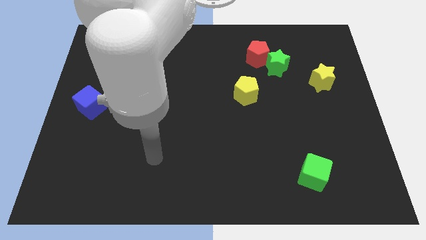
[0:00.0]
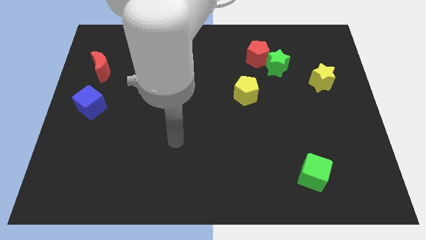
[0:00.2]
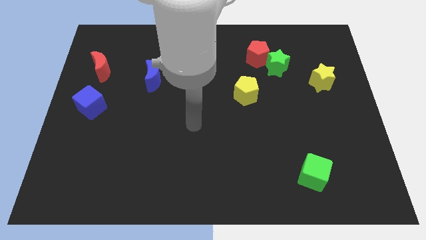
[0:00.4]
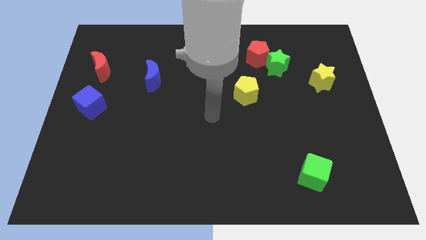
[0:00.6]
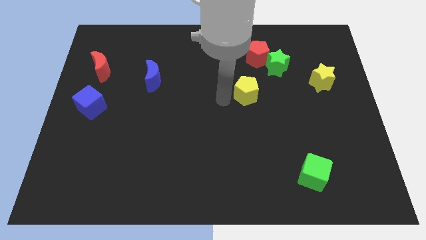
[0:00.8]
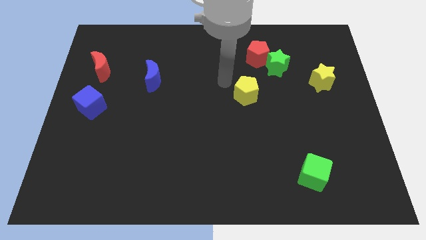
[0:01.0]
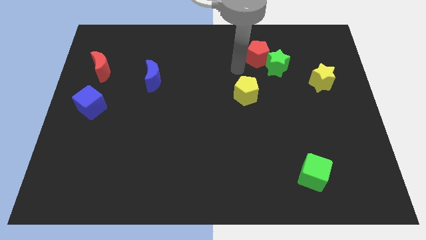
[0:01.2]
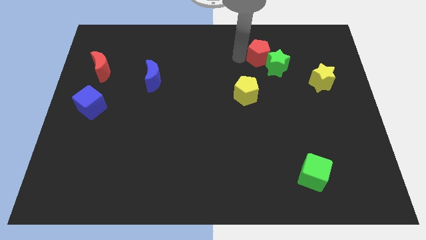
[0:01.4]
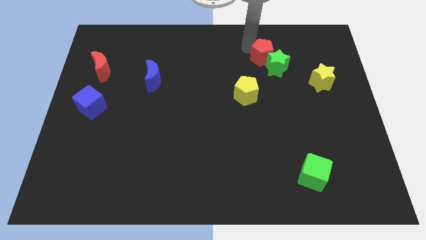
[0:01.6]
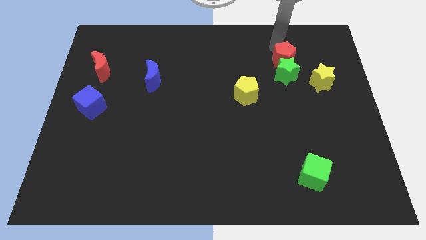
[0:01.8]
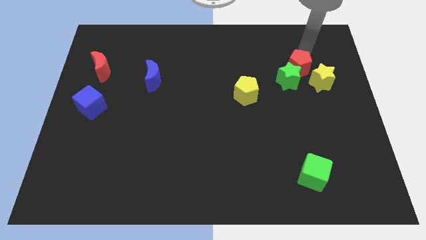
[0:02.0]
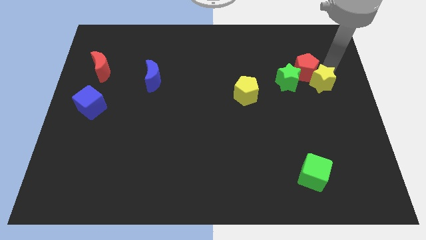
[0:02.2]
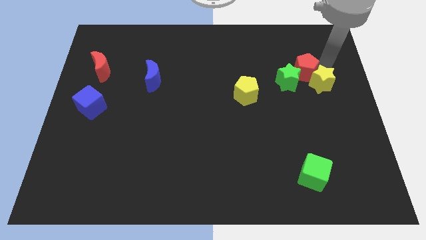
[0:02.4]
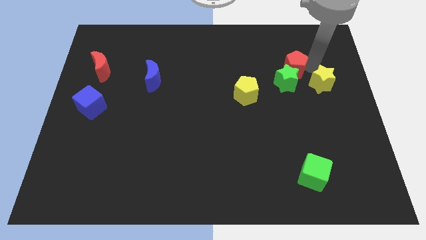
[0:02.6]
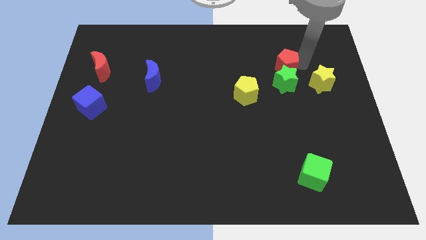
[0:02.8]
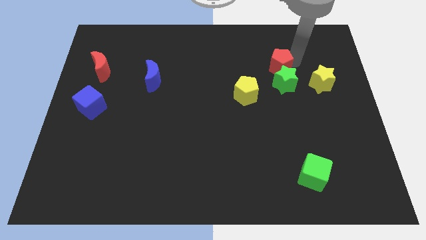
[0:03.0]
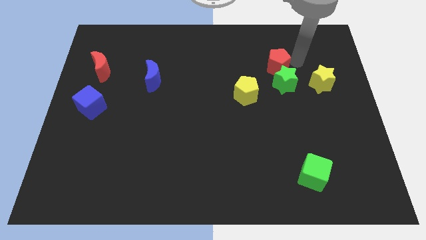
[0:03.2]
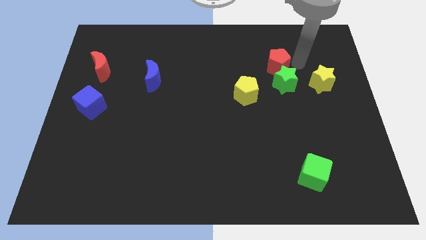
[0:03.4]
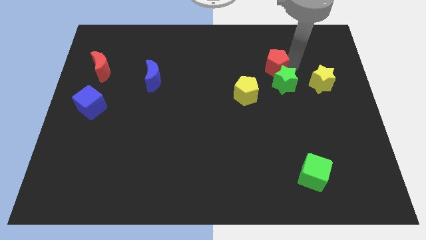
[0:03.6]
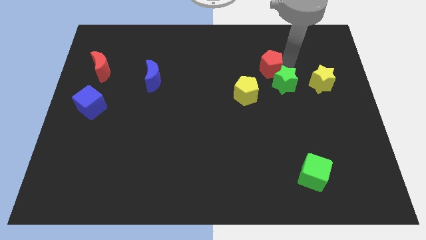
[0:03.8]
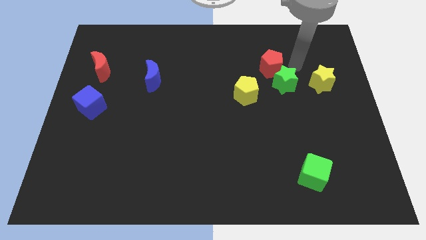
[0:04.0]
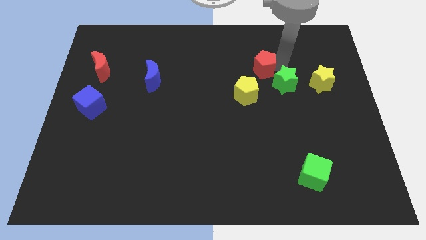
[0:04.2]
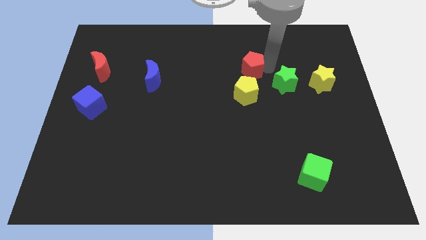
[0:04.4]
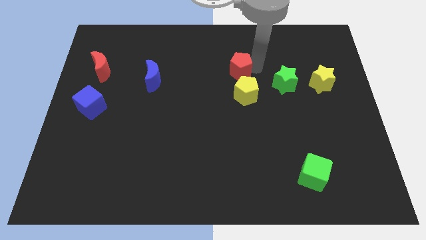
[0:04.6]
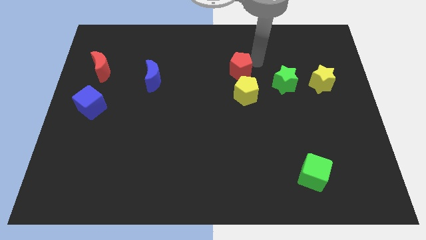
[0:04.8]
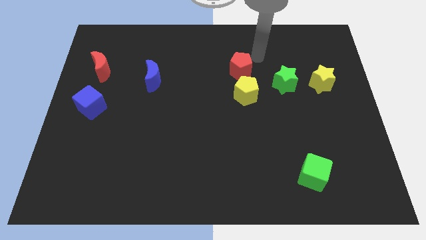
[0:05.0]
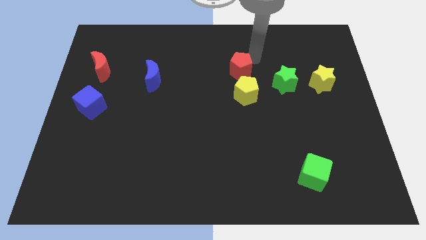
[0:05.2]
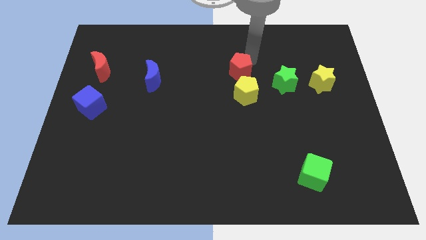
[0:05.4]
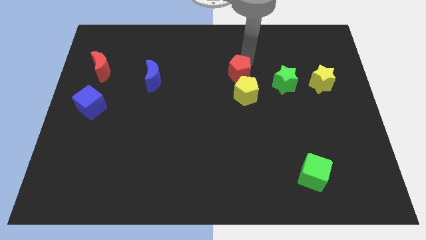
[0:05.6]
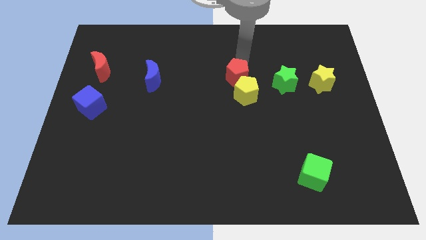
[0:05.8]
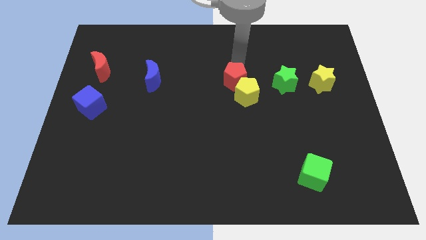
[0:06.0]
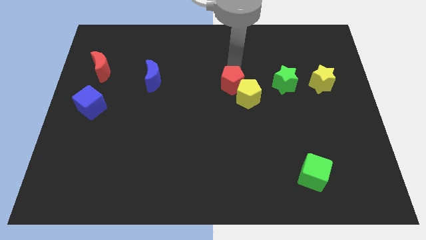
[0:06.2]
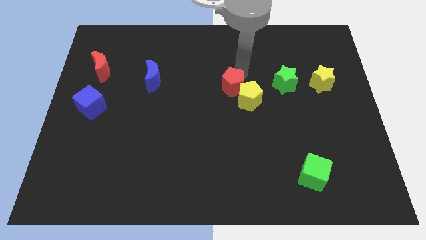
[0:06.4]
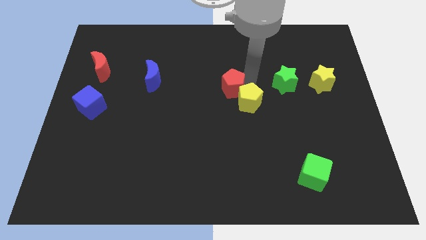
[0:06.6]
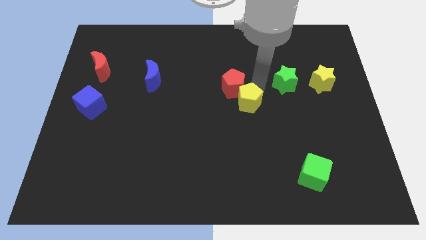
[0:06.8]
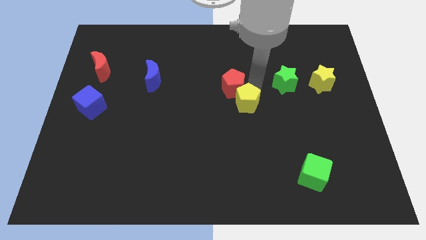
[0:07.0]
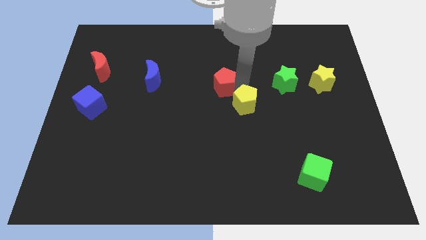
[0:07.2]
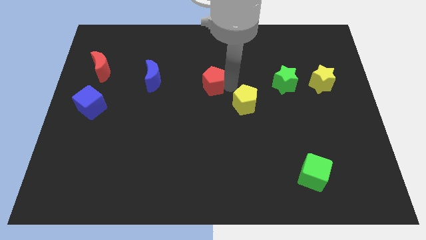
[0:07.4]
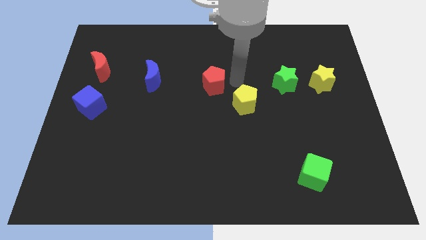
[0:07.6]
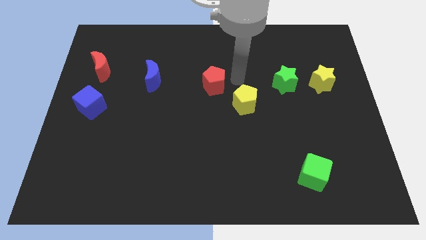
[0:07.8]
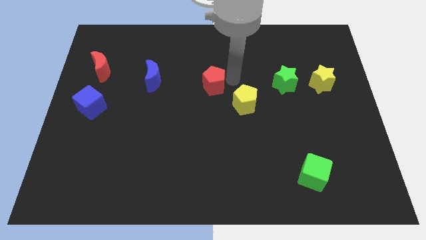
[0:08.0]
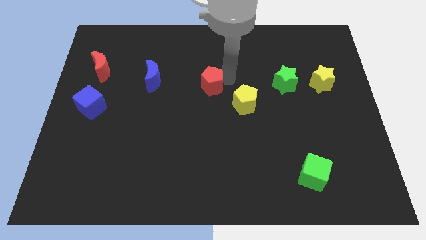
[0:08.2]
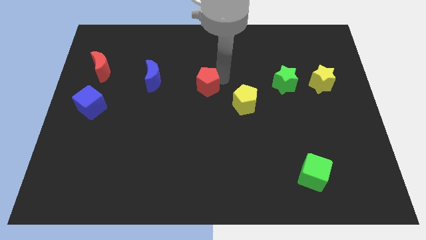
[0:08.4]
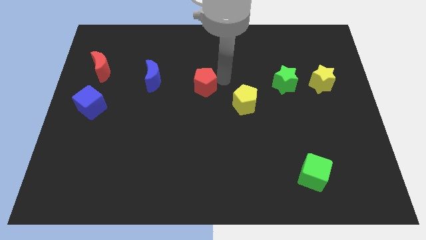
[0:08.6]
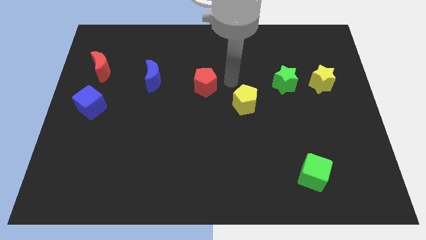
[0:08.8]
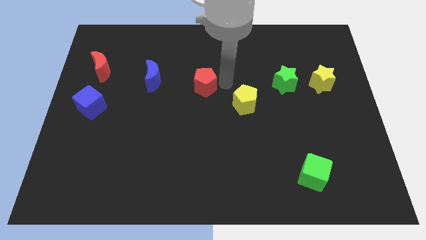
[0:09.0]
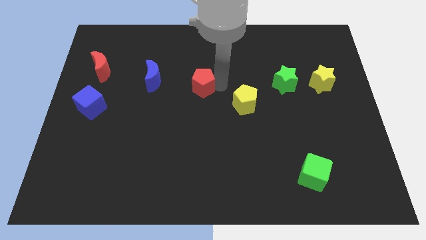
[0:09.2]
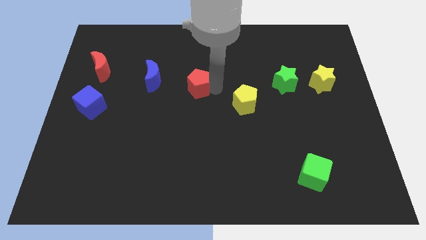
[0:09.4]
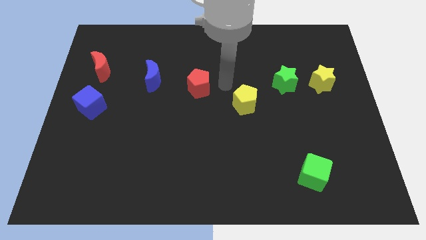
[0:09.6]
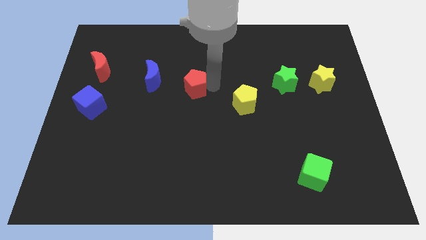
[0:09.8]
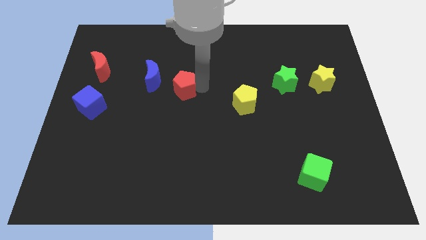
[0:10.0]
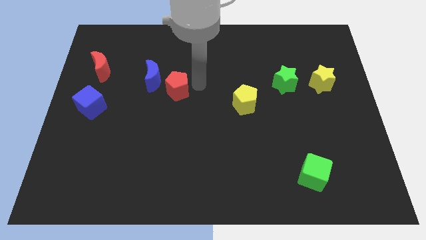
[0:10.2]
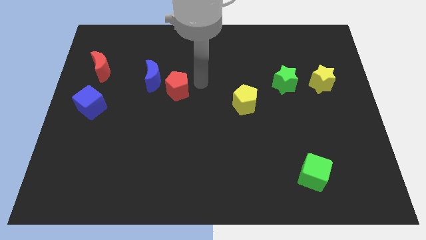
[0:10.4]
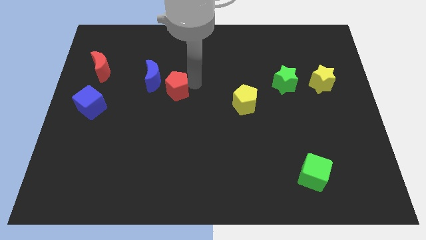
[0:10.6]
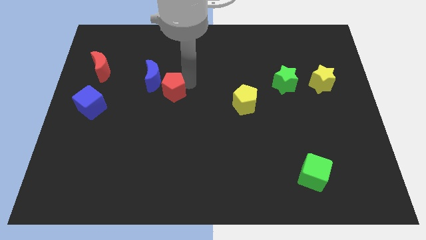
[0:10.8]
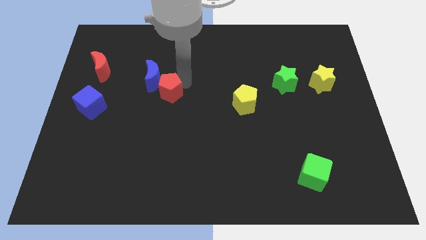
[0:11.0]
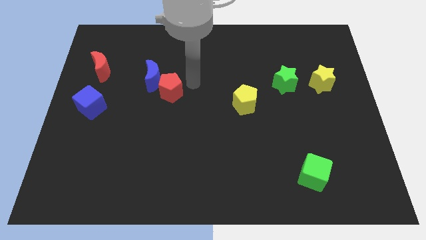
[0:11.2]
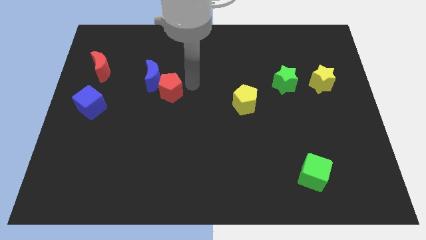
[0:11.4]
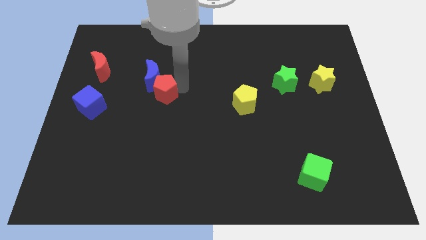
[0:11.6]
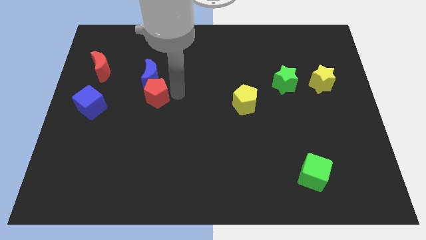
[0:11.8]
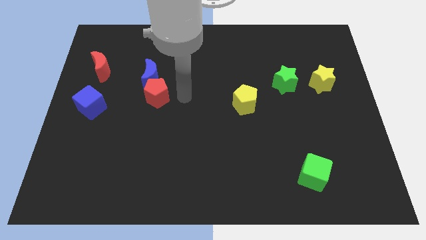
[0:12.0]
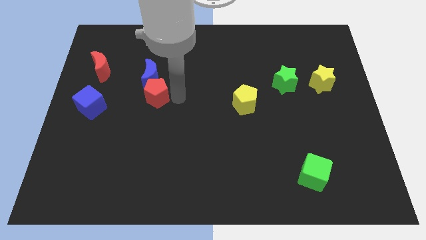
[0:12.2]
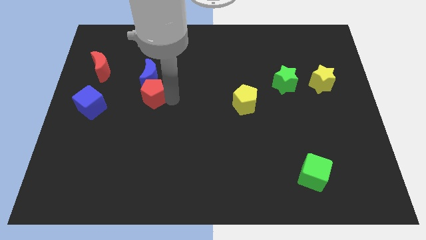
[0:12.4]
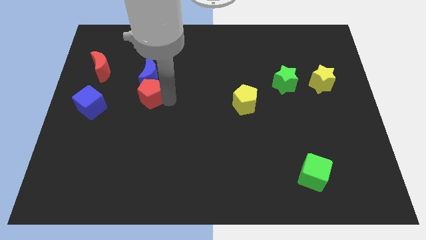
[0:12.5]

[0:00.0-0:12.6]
push the red pentagon to the bottom left of the blue moon

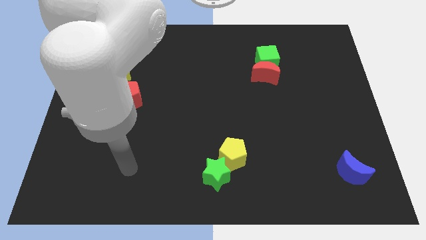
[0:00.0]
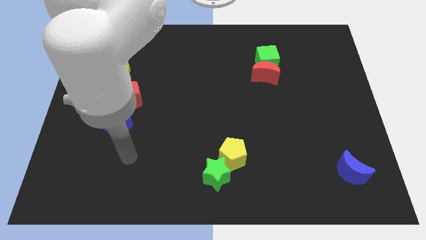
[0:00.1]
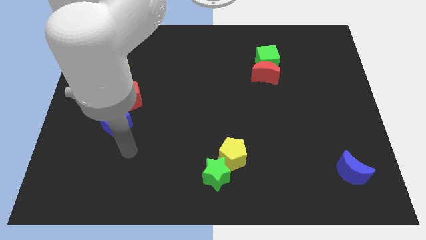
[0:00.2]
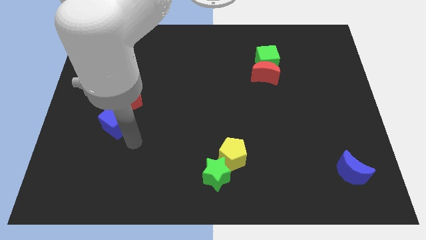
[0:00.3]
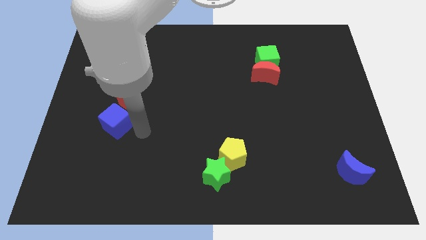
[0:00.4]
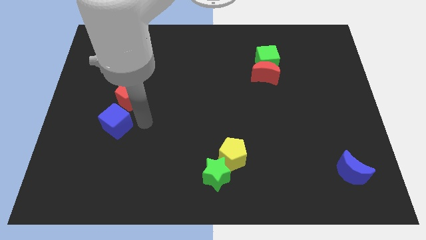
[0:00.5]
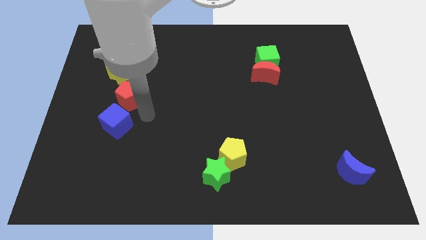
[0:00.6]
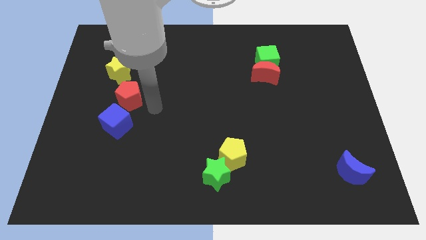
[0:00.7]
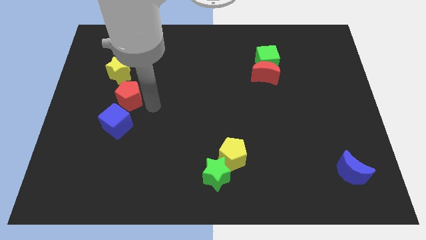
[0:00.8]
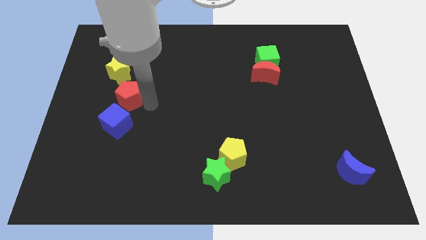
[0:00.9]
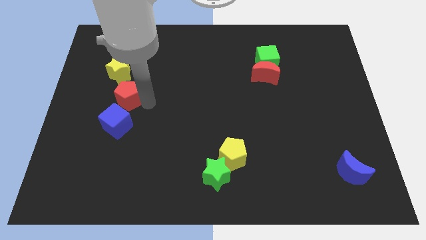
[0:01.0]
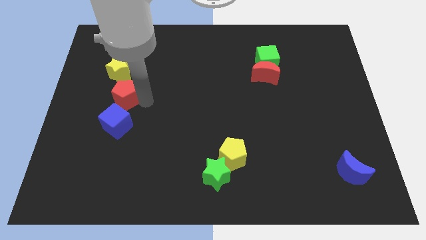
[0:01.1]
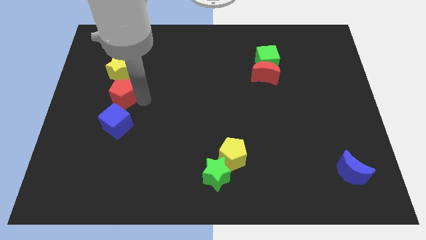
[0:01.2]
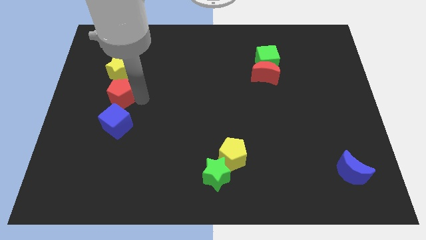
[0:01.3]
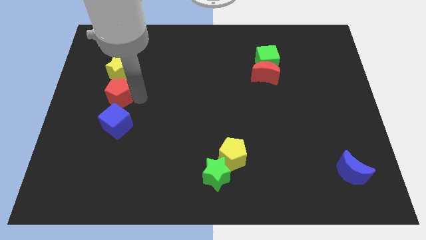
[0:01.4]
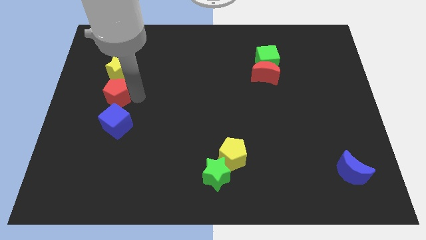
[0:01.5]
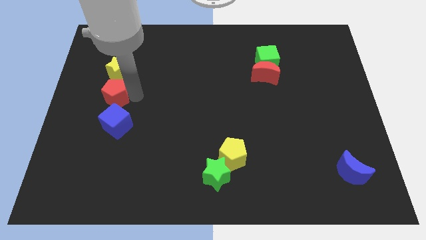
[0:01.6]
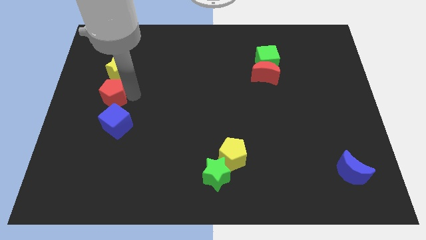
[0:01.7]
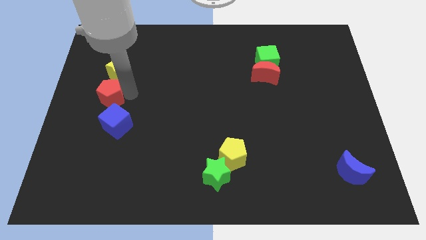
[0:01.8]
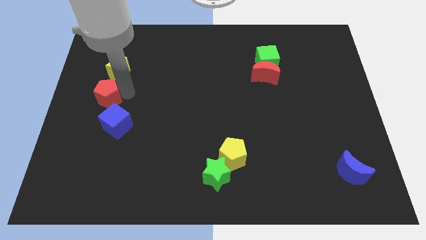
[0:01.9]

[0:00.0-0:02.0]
push the red pentagon to the bottom left side of the yellow star
